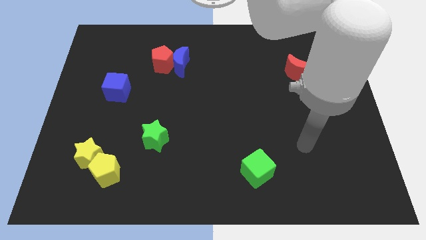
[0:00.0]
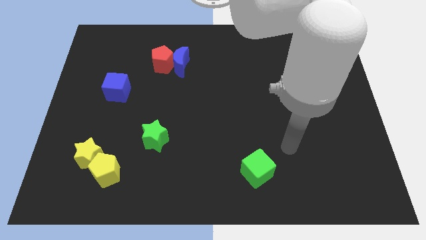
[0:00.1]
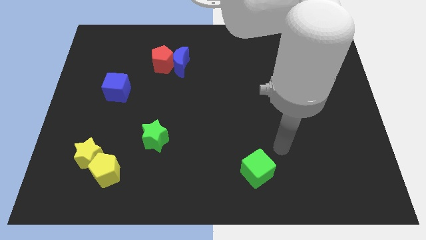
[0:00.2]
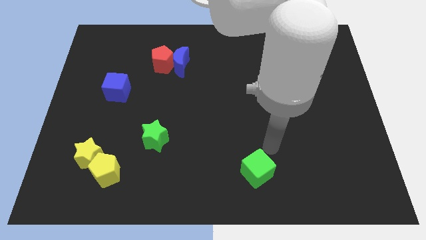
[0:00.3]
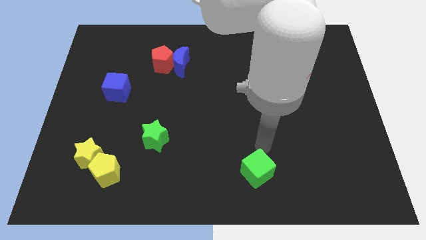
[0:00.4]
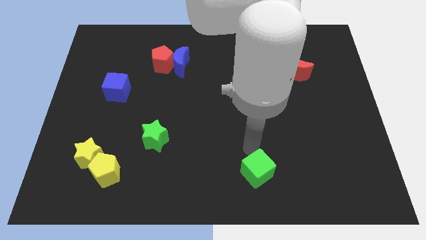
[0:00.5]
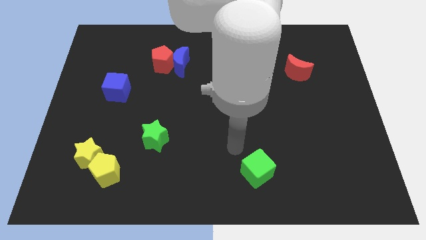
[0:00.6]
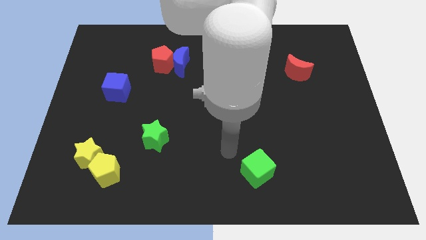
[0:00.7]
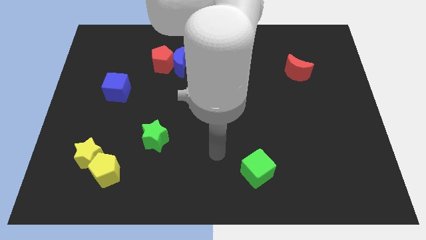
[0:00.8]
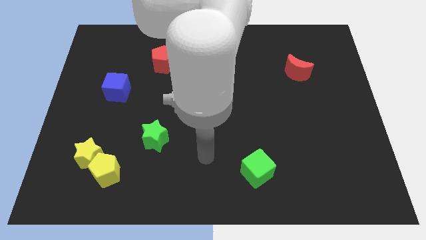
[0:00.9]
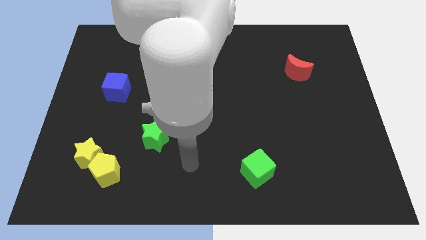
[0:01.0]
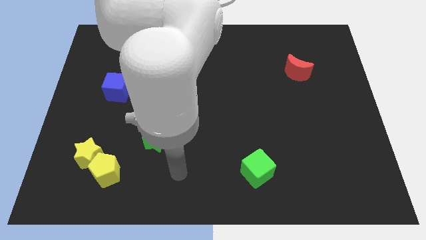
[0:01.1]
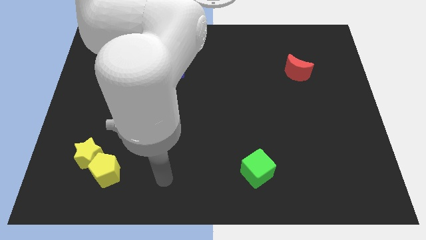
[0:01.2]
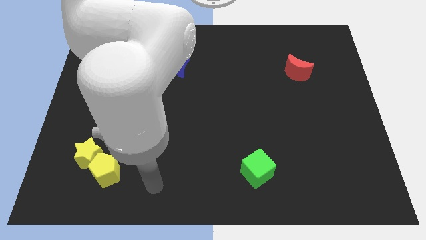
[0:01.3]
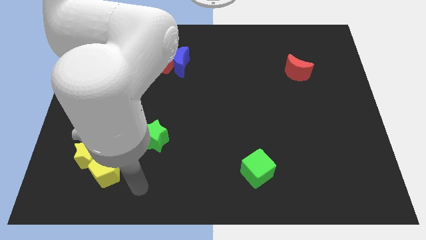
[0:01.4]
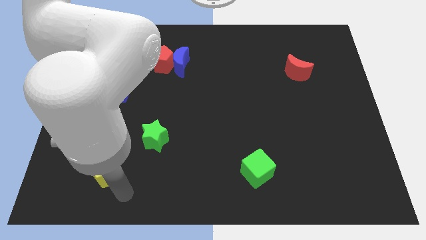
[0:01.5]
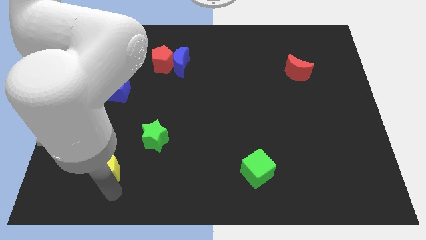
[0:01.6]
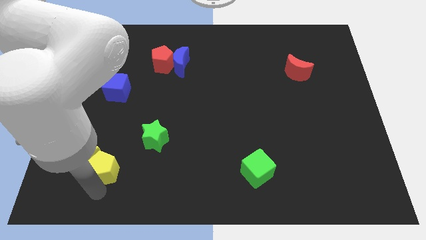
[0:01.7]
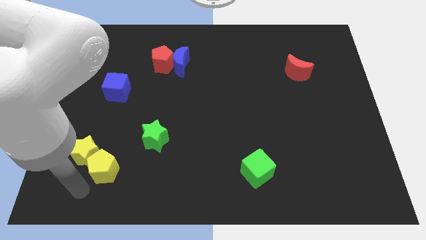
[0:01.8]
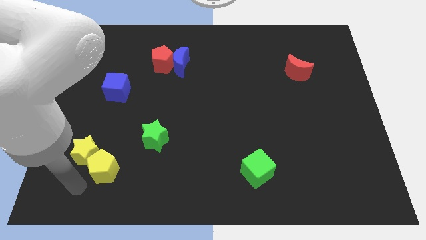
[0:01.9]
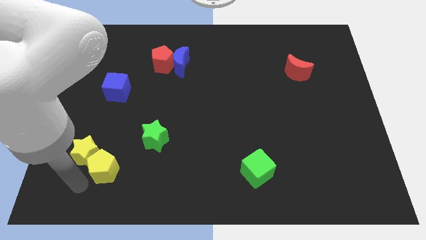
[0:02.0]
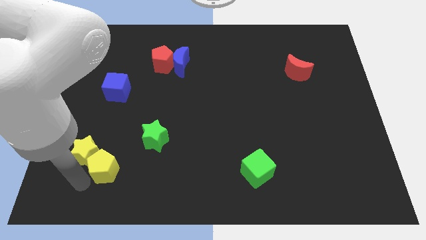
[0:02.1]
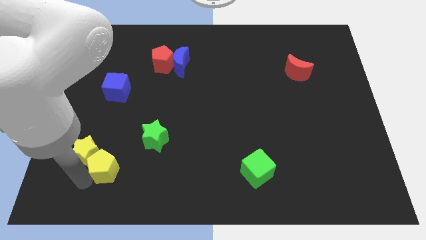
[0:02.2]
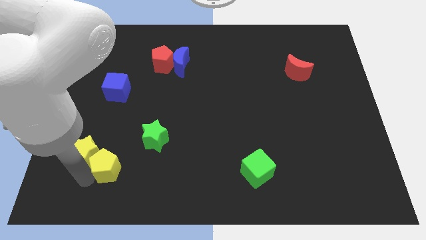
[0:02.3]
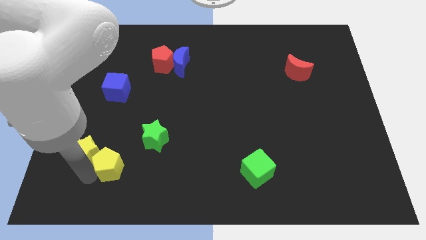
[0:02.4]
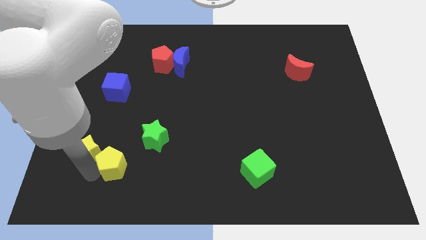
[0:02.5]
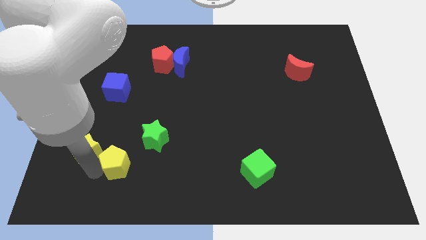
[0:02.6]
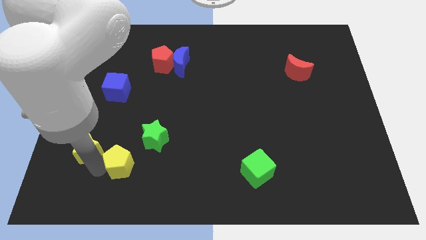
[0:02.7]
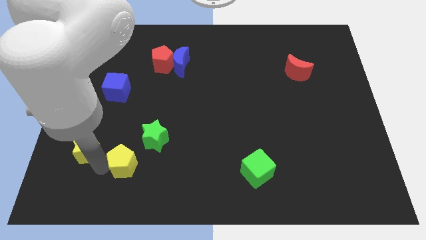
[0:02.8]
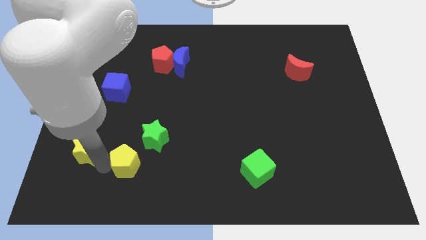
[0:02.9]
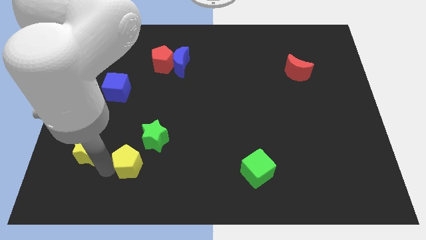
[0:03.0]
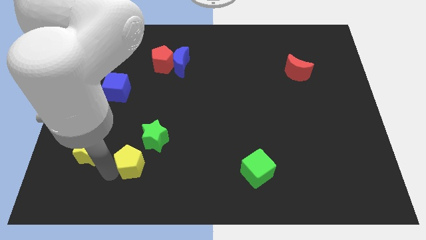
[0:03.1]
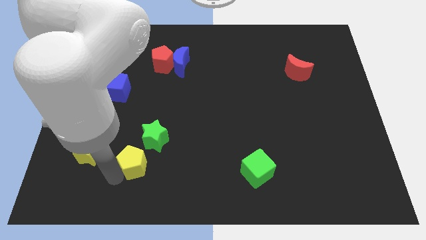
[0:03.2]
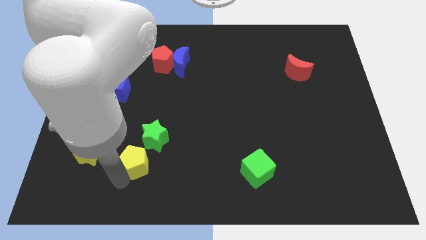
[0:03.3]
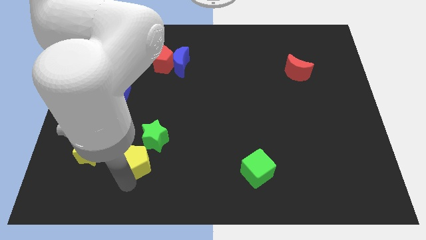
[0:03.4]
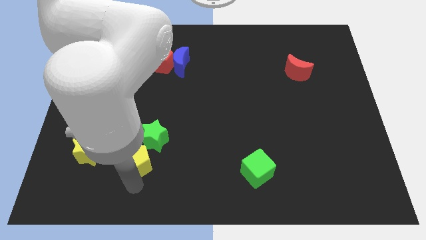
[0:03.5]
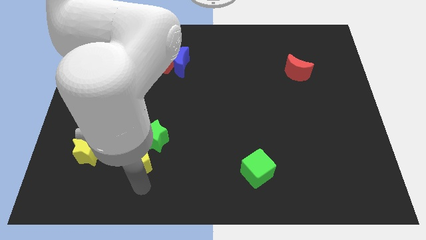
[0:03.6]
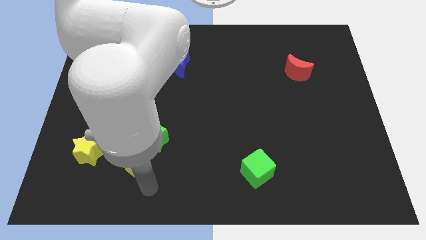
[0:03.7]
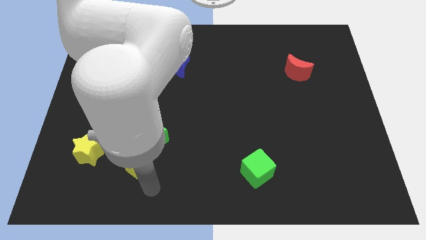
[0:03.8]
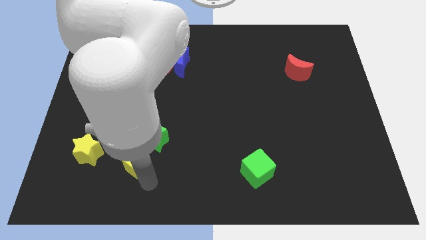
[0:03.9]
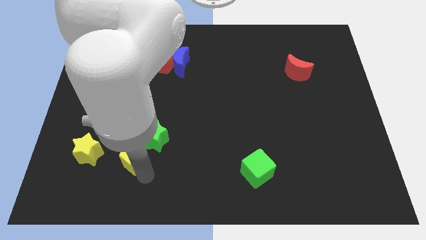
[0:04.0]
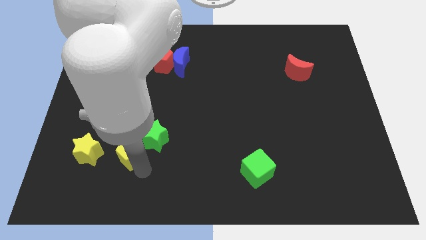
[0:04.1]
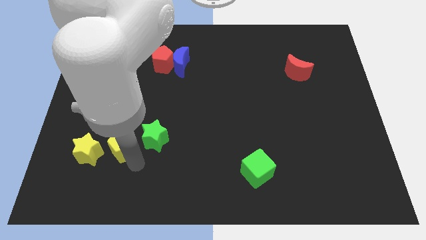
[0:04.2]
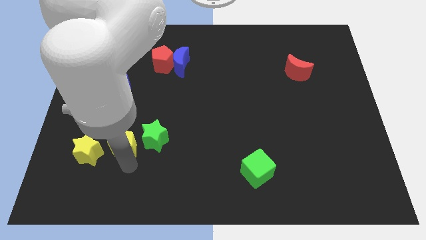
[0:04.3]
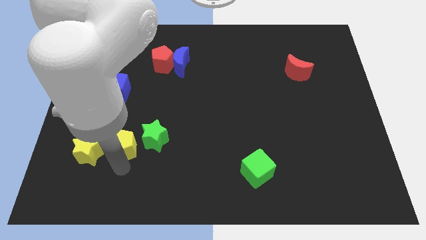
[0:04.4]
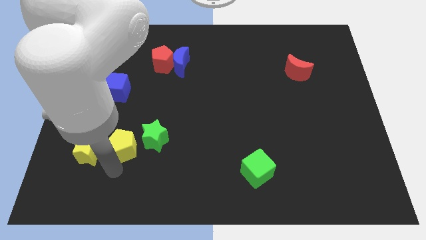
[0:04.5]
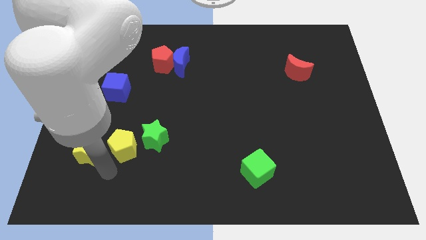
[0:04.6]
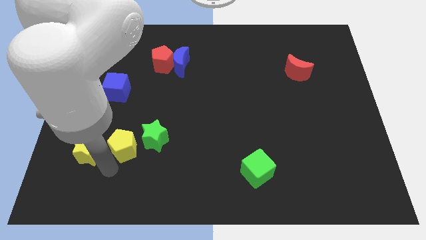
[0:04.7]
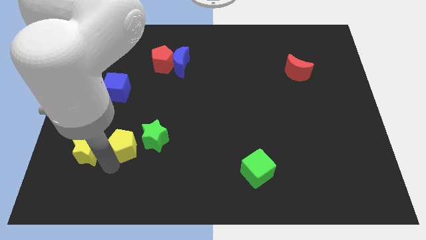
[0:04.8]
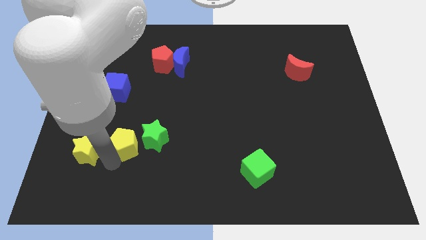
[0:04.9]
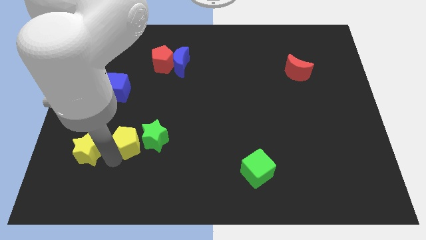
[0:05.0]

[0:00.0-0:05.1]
slightly push the yellow pentagon upwards and then to the right

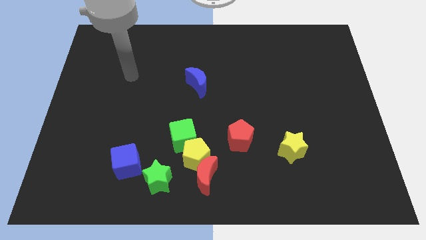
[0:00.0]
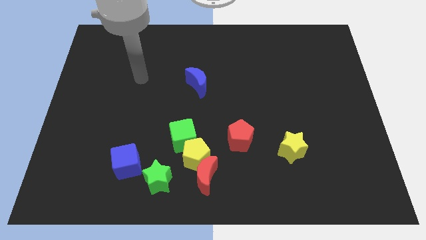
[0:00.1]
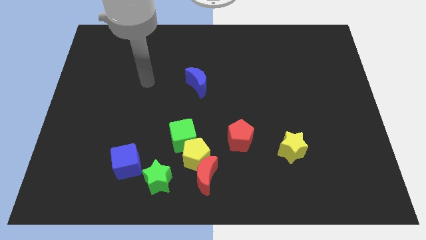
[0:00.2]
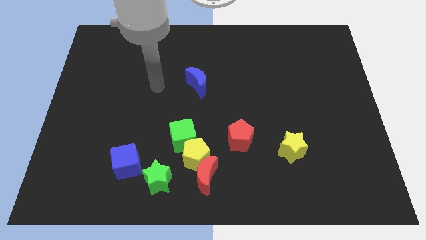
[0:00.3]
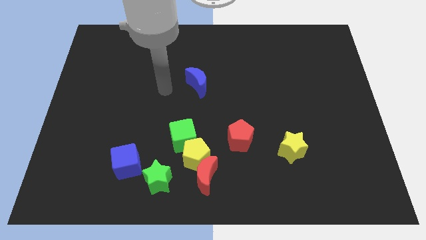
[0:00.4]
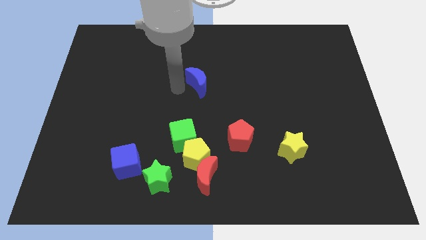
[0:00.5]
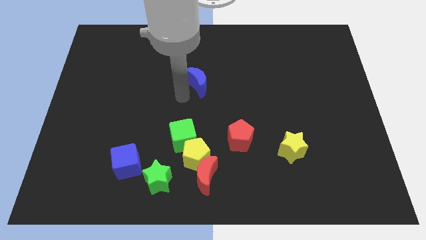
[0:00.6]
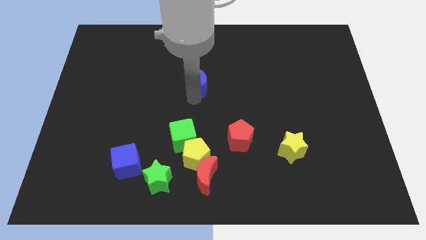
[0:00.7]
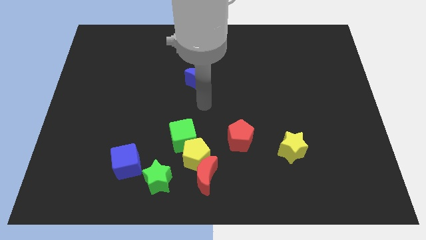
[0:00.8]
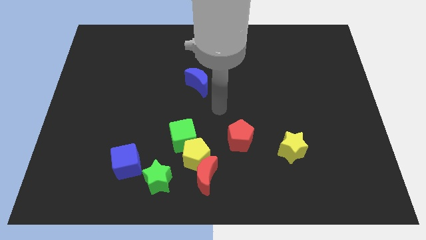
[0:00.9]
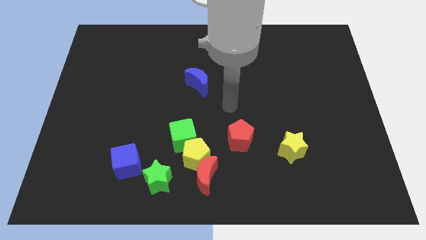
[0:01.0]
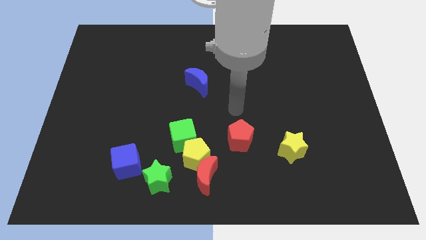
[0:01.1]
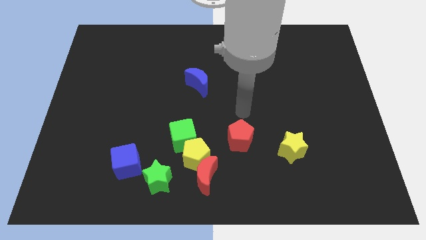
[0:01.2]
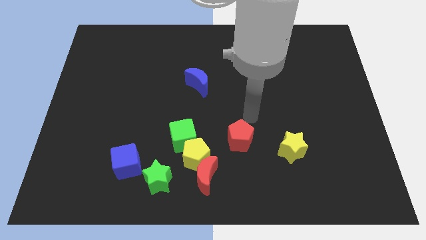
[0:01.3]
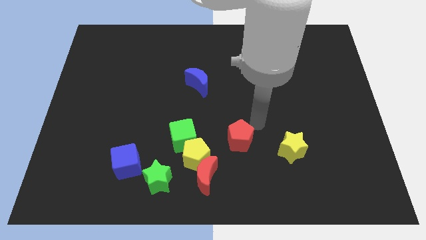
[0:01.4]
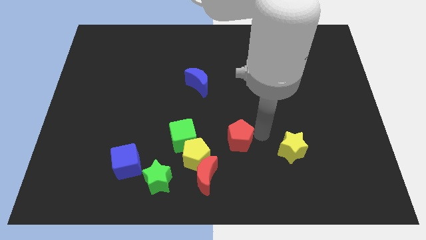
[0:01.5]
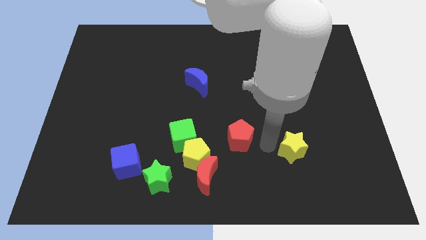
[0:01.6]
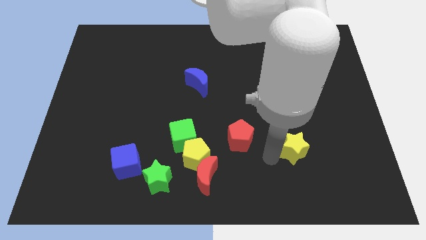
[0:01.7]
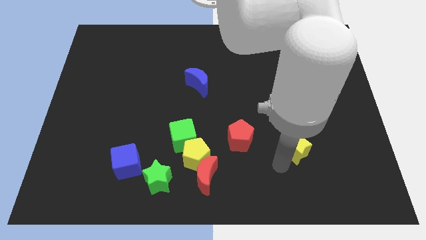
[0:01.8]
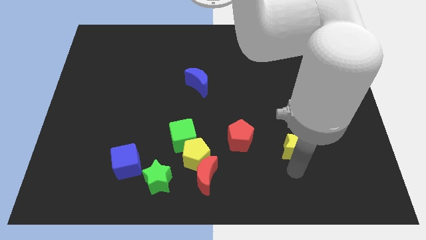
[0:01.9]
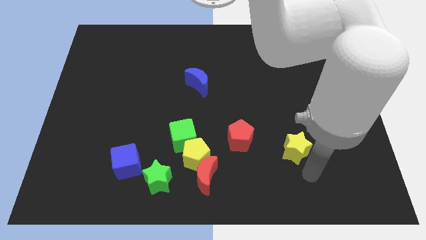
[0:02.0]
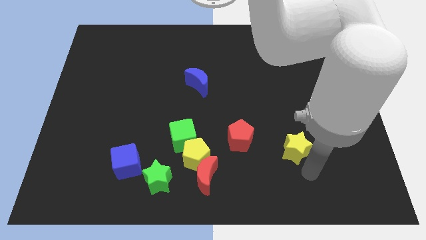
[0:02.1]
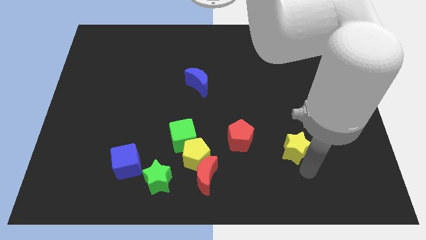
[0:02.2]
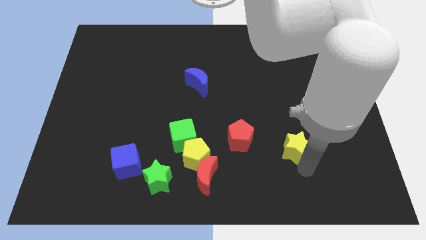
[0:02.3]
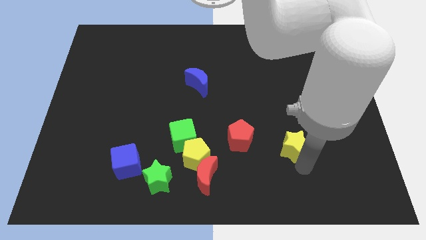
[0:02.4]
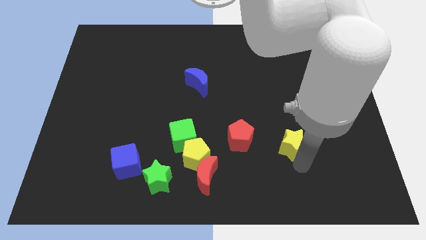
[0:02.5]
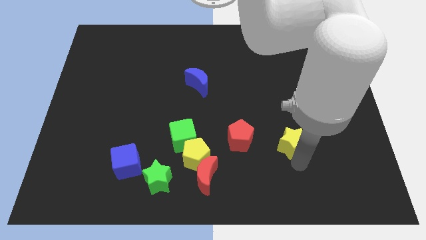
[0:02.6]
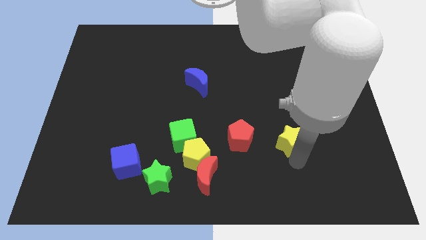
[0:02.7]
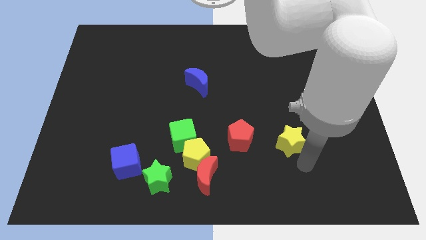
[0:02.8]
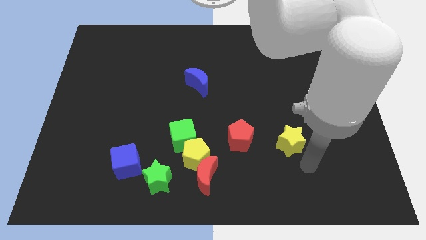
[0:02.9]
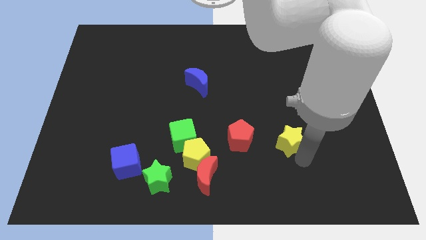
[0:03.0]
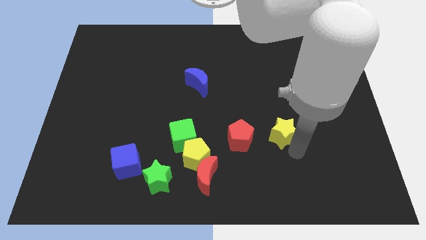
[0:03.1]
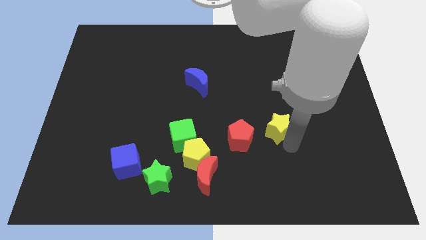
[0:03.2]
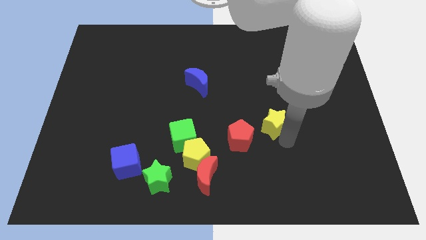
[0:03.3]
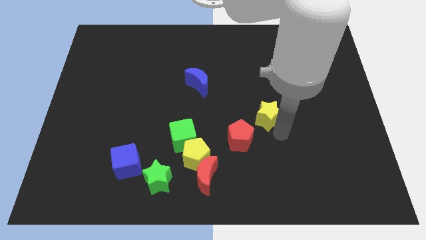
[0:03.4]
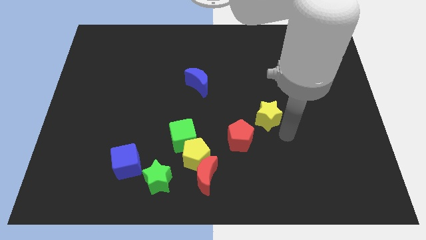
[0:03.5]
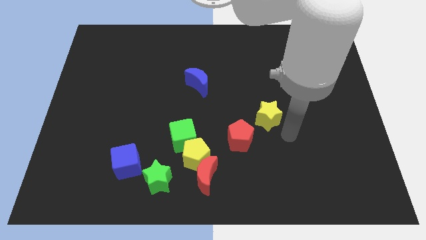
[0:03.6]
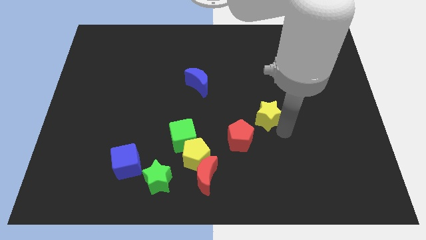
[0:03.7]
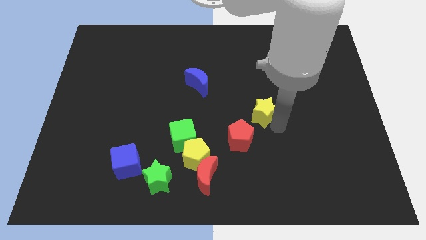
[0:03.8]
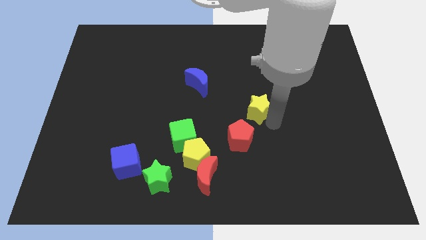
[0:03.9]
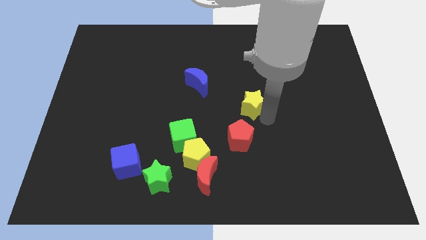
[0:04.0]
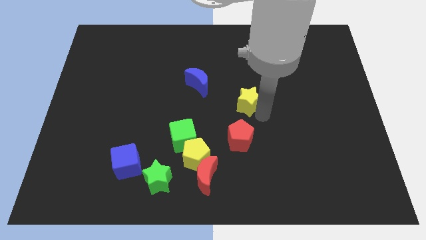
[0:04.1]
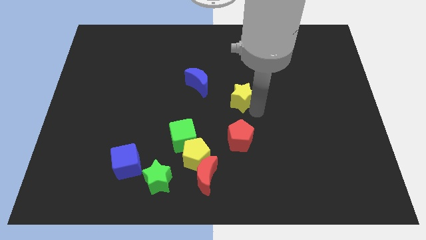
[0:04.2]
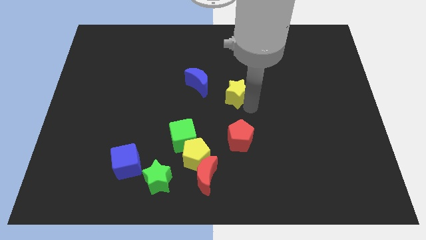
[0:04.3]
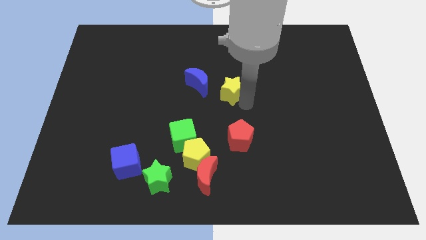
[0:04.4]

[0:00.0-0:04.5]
slide the yellow star up and to the left diagonally
